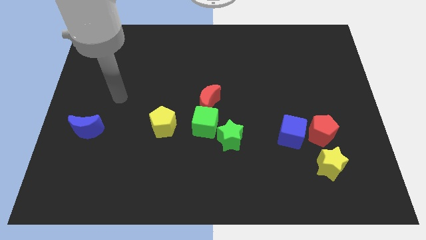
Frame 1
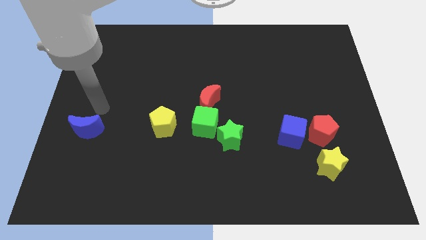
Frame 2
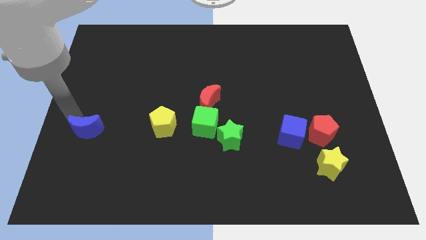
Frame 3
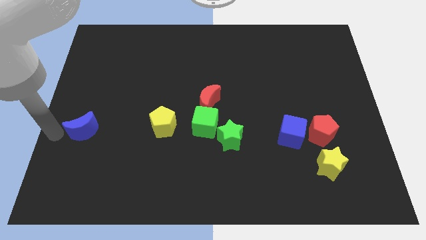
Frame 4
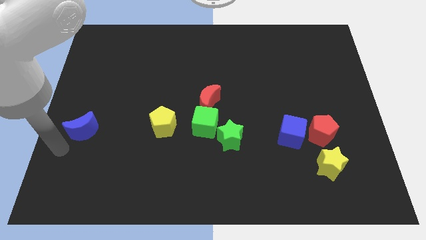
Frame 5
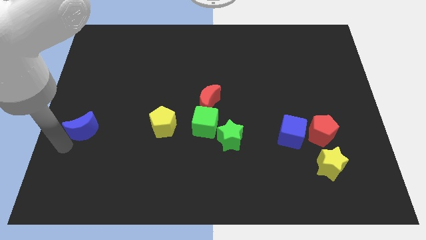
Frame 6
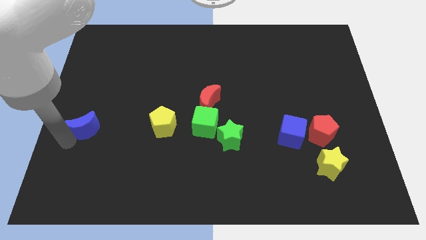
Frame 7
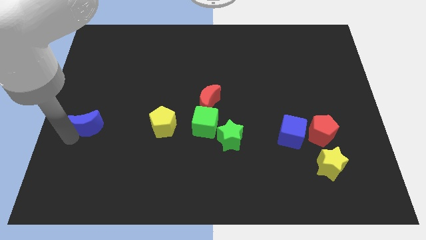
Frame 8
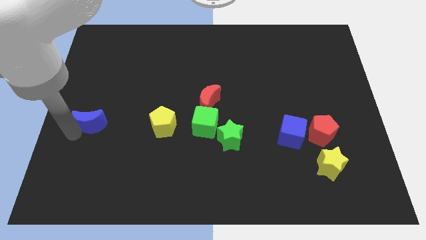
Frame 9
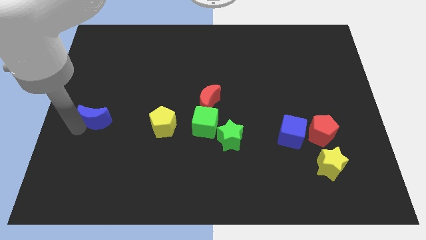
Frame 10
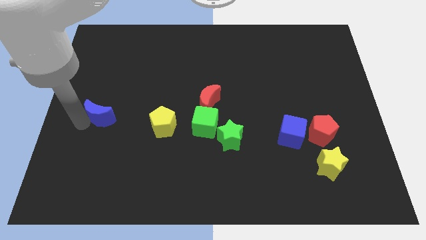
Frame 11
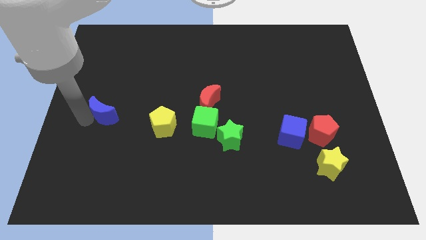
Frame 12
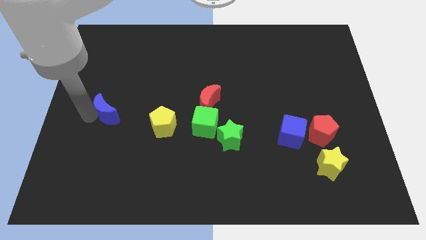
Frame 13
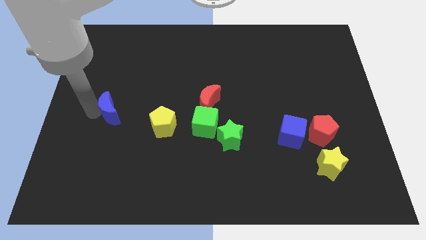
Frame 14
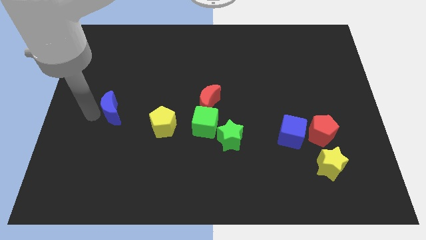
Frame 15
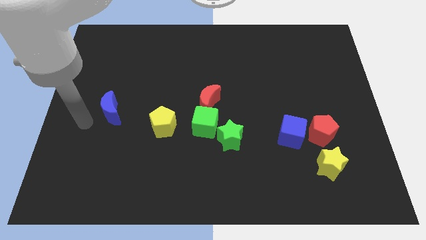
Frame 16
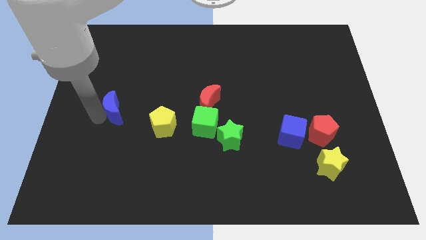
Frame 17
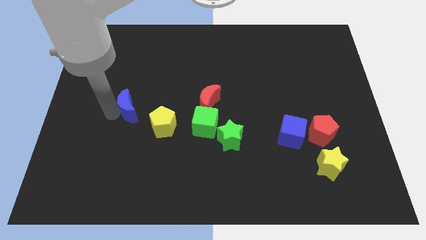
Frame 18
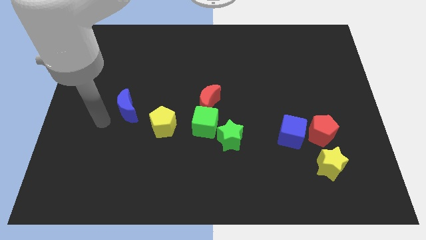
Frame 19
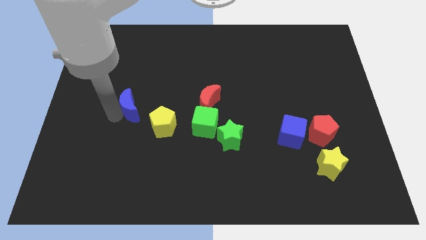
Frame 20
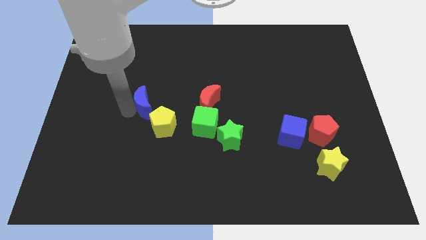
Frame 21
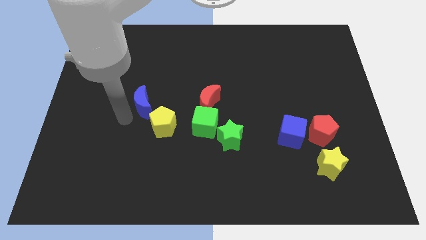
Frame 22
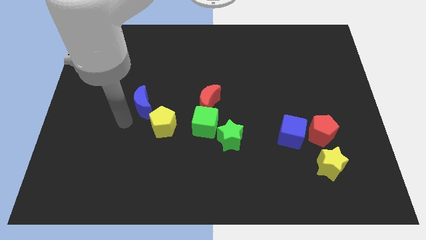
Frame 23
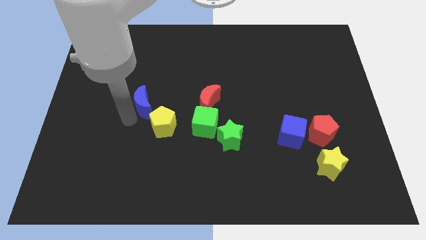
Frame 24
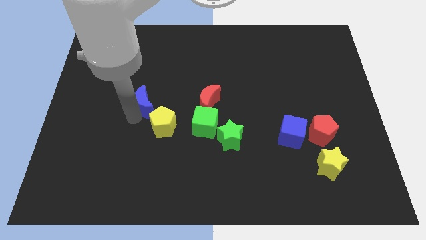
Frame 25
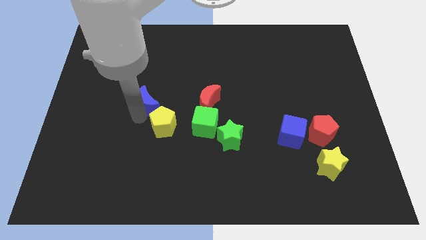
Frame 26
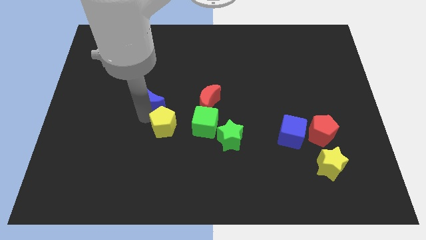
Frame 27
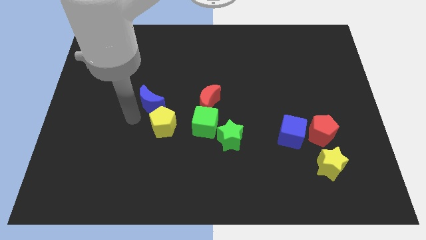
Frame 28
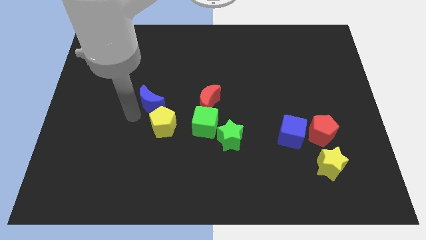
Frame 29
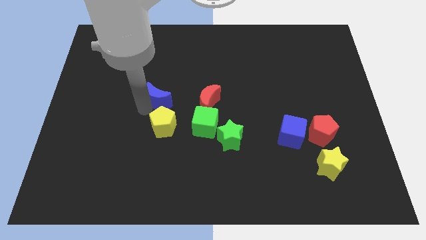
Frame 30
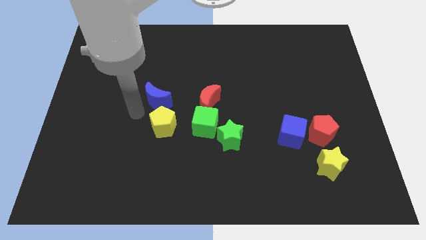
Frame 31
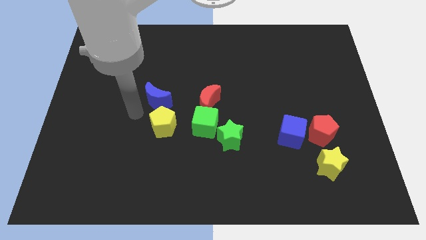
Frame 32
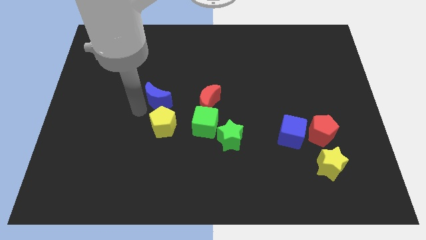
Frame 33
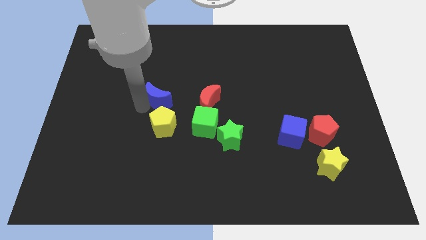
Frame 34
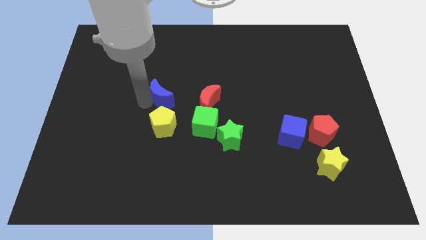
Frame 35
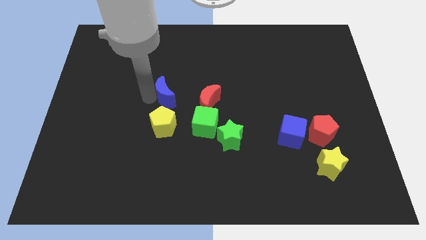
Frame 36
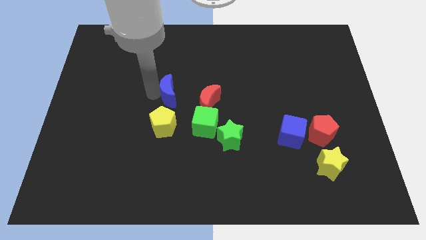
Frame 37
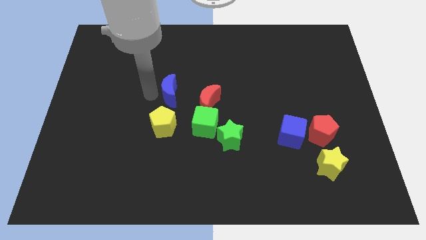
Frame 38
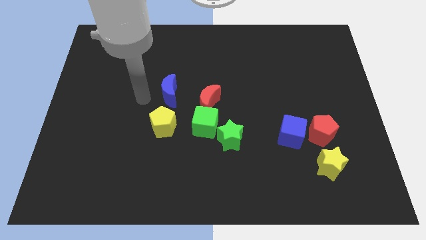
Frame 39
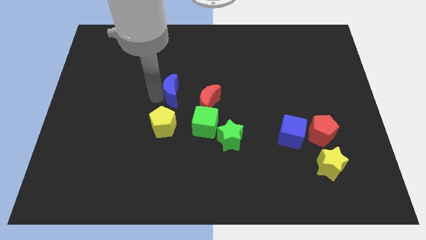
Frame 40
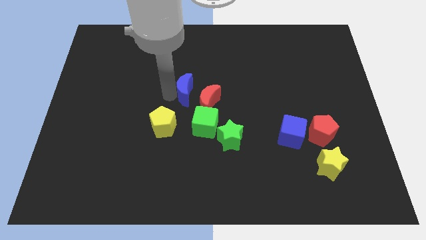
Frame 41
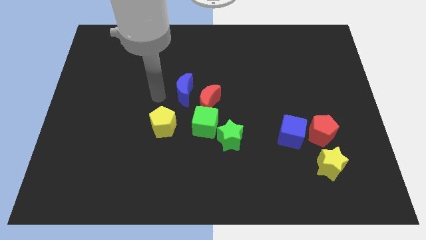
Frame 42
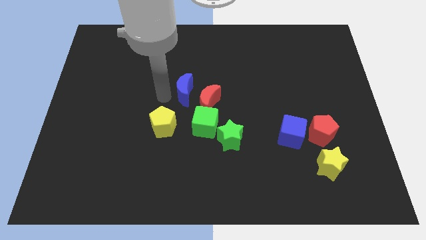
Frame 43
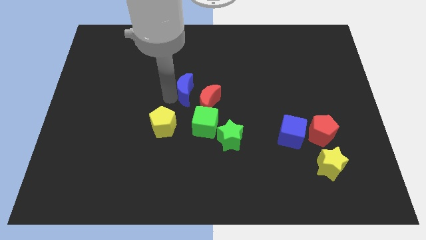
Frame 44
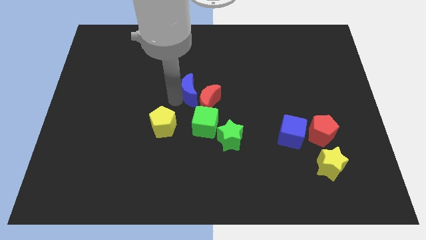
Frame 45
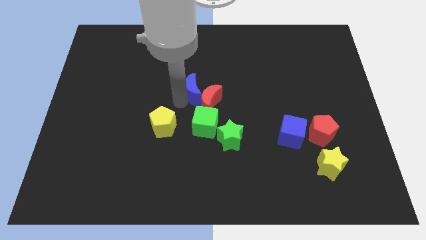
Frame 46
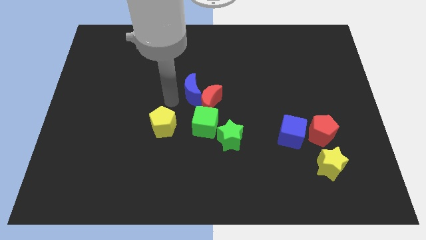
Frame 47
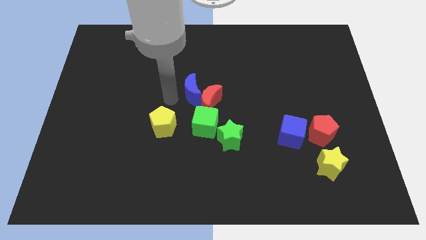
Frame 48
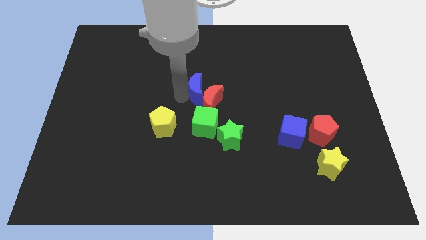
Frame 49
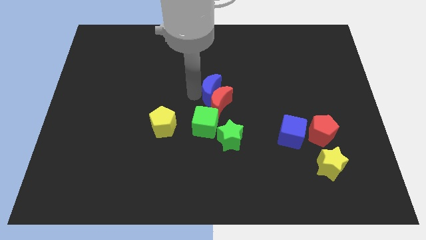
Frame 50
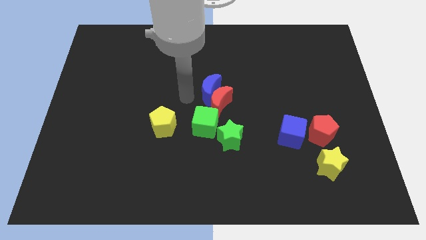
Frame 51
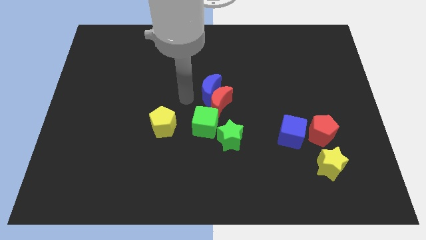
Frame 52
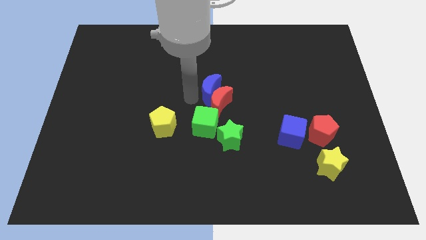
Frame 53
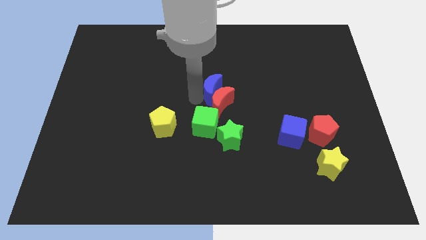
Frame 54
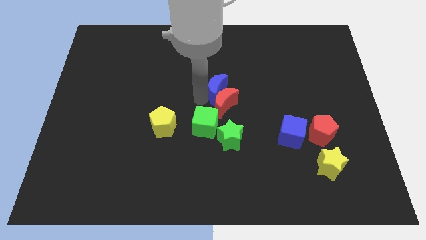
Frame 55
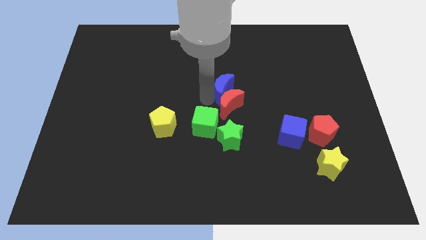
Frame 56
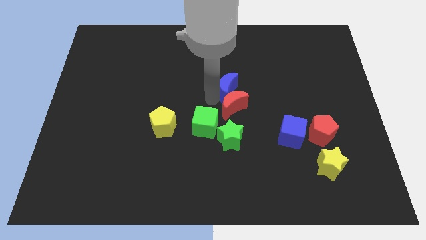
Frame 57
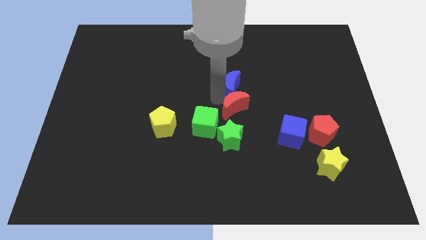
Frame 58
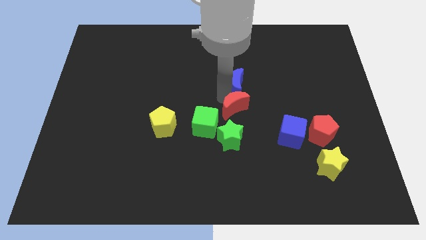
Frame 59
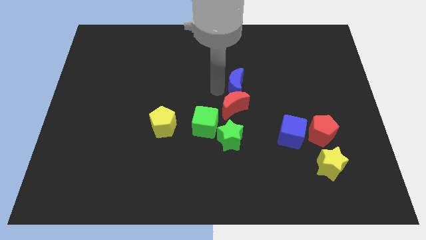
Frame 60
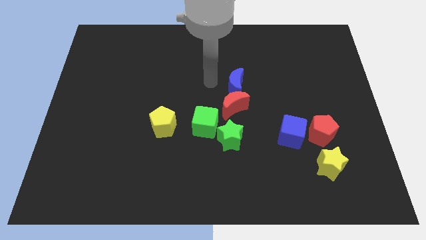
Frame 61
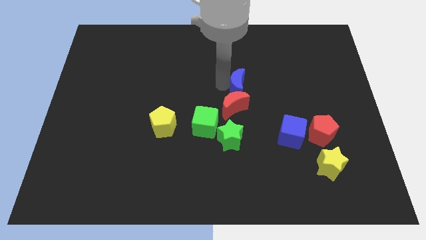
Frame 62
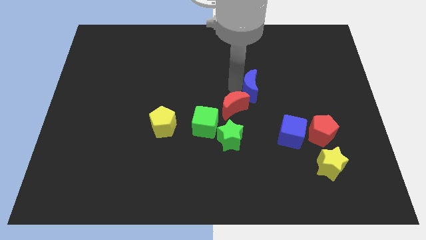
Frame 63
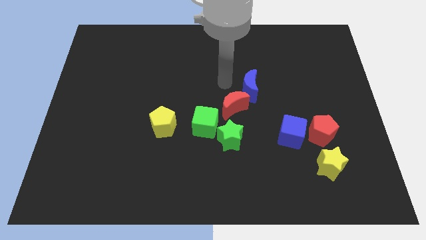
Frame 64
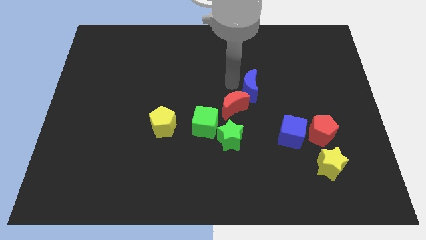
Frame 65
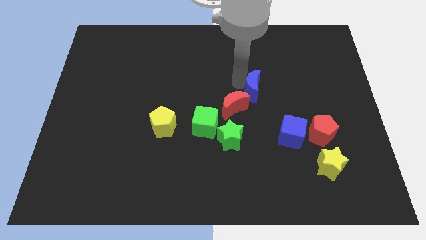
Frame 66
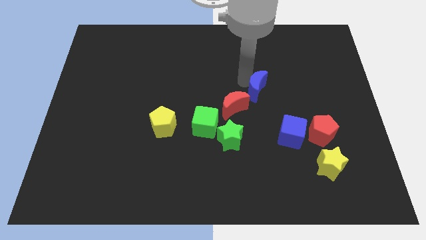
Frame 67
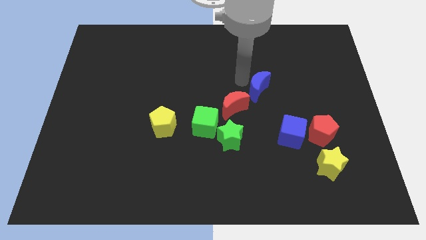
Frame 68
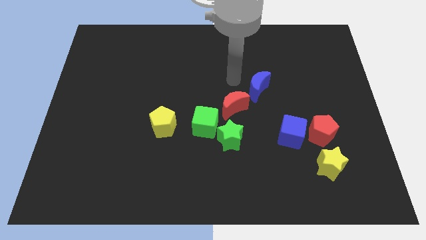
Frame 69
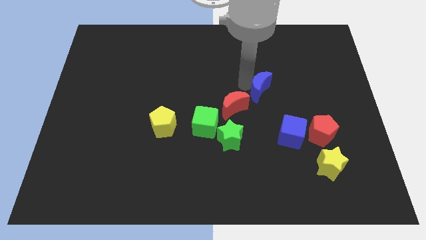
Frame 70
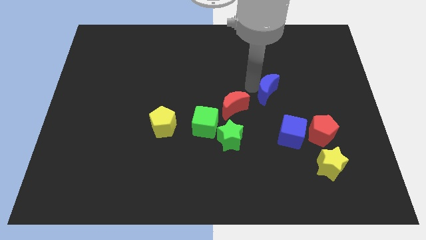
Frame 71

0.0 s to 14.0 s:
put the blue moon to the top side of the blue cube

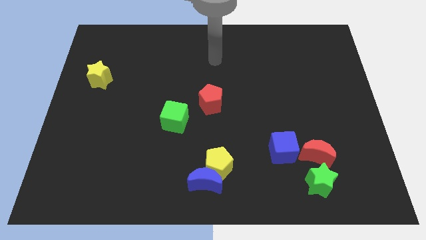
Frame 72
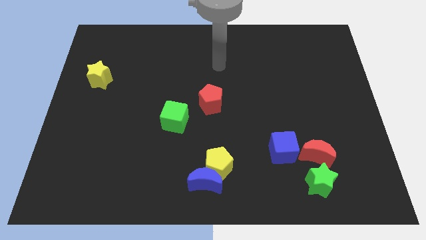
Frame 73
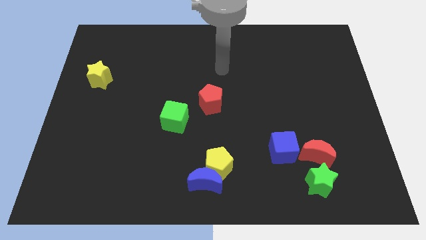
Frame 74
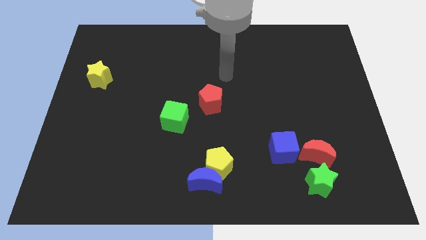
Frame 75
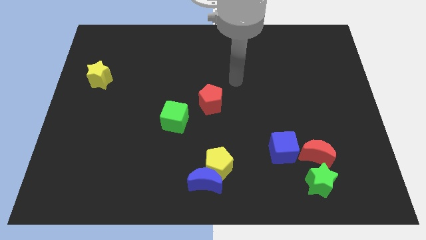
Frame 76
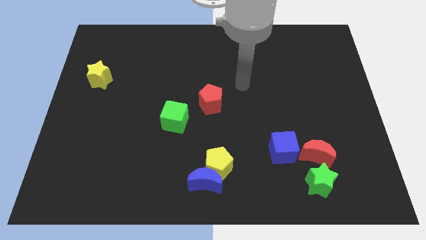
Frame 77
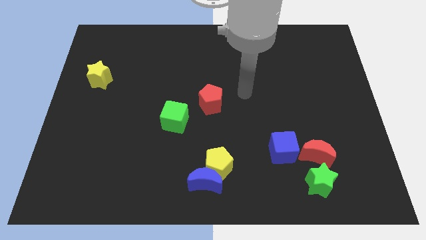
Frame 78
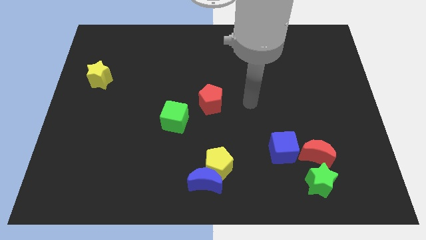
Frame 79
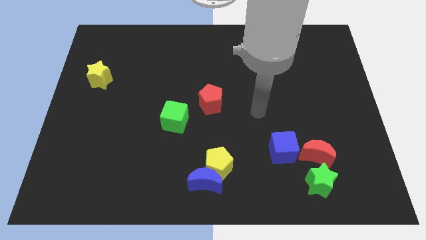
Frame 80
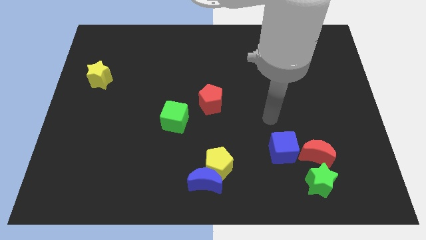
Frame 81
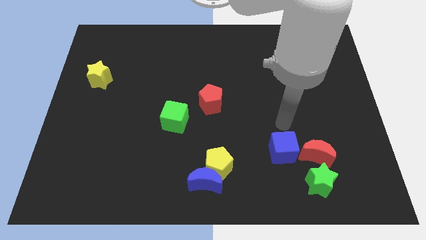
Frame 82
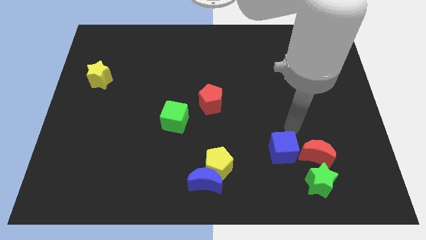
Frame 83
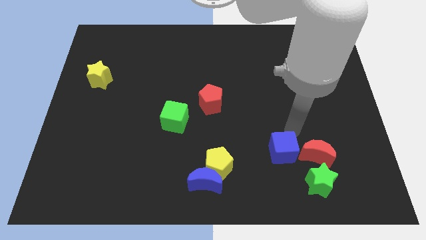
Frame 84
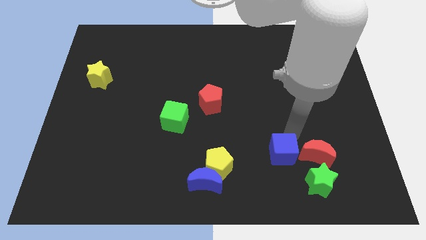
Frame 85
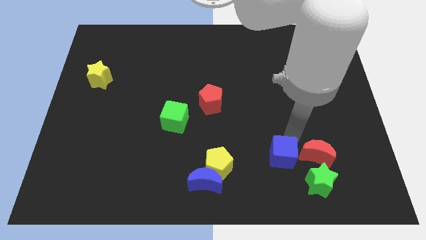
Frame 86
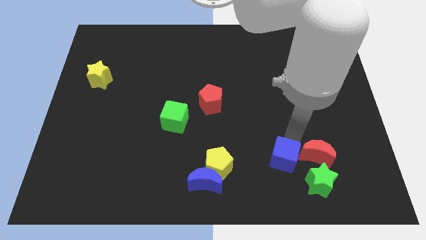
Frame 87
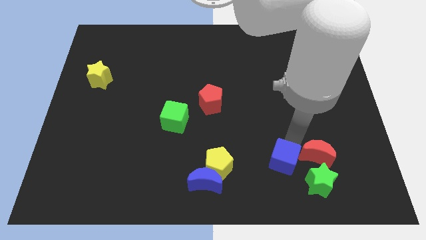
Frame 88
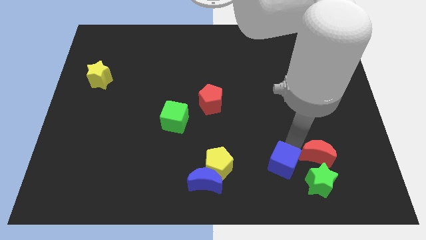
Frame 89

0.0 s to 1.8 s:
put the blue cube left of the green star
